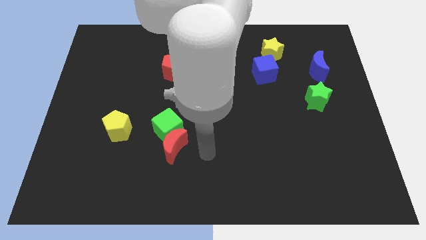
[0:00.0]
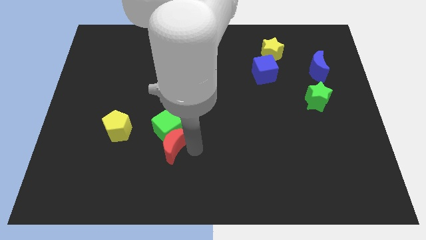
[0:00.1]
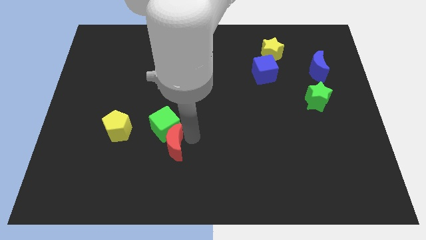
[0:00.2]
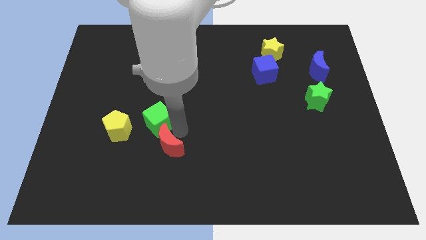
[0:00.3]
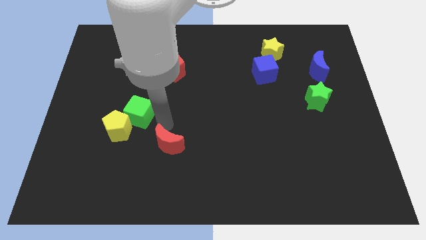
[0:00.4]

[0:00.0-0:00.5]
pull the red moon apart from the green cube

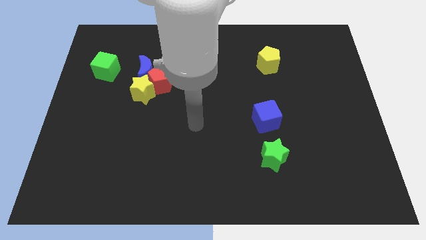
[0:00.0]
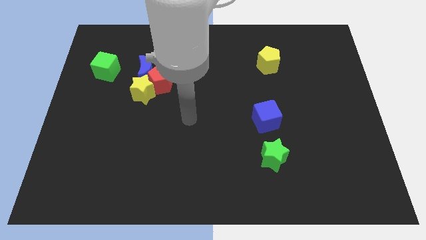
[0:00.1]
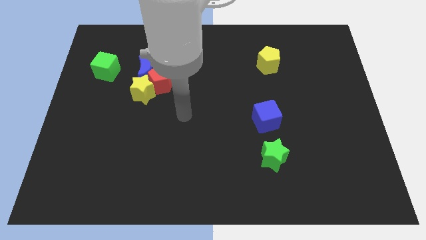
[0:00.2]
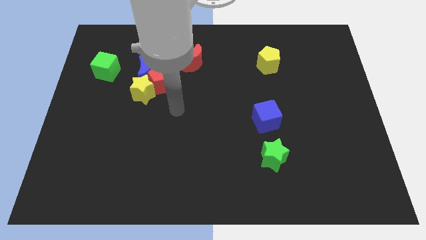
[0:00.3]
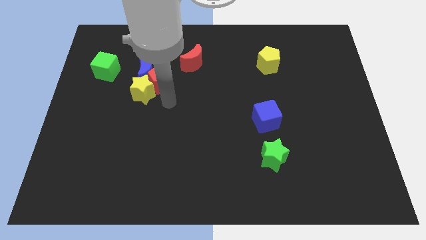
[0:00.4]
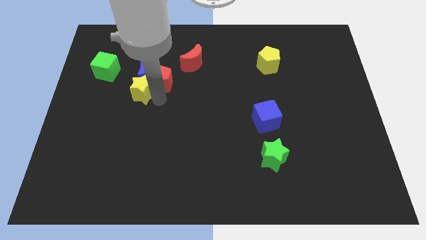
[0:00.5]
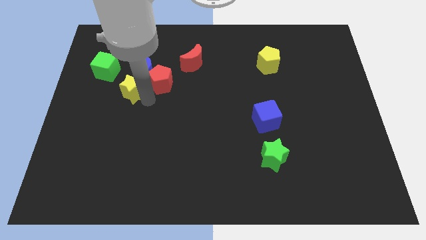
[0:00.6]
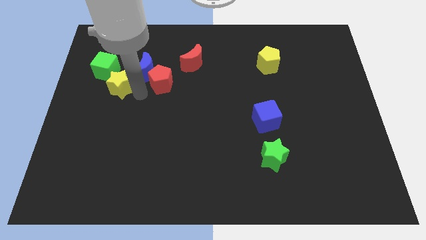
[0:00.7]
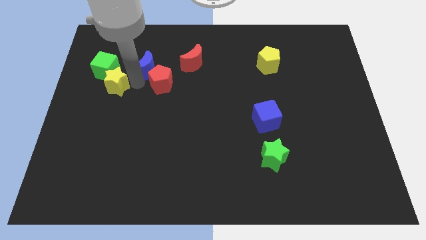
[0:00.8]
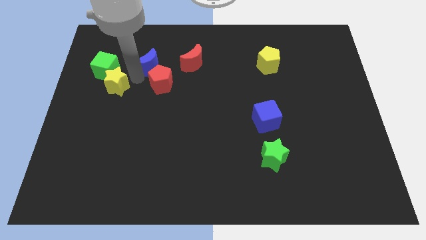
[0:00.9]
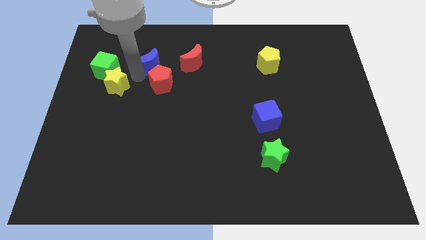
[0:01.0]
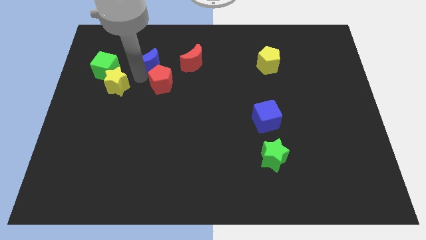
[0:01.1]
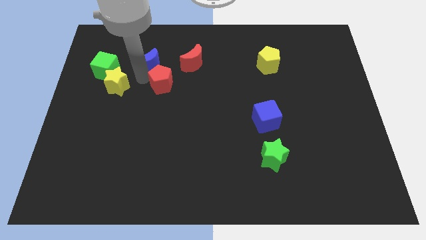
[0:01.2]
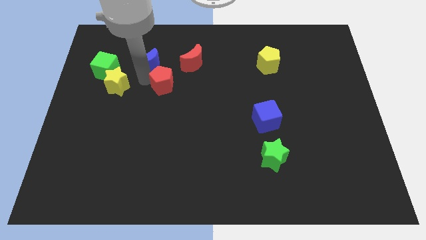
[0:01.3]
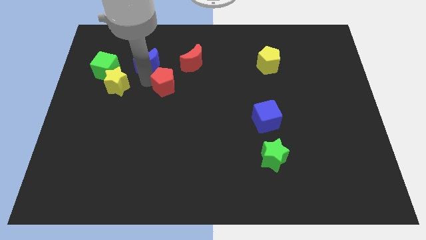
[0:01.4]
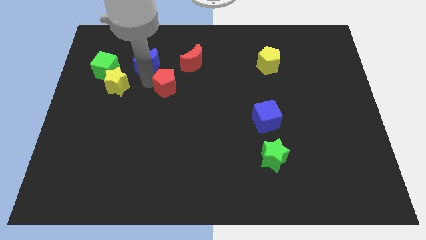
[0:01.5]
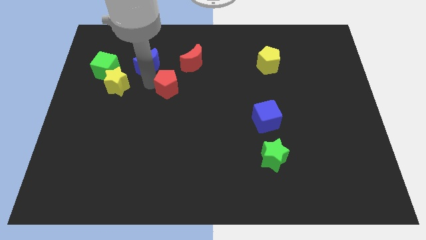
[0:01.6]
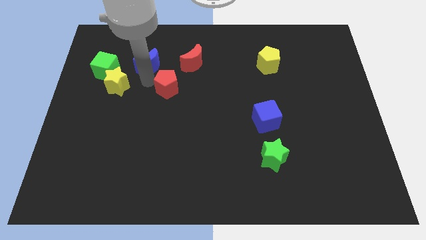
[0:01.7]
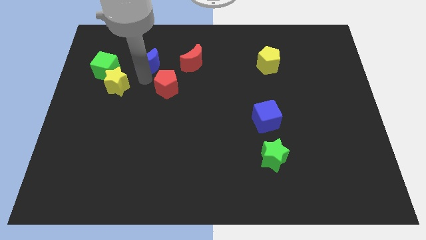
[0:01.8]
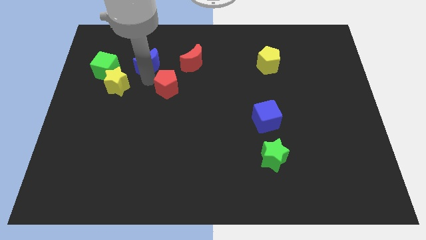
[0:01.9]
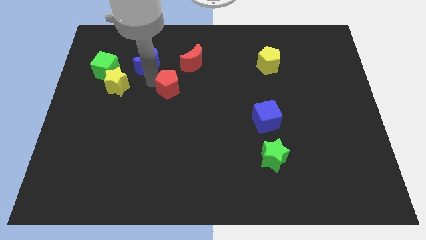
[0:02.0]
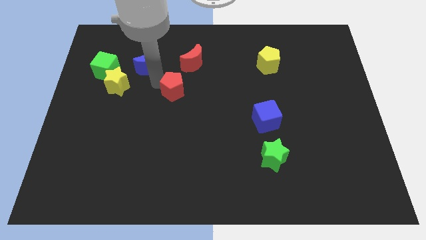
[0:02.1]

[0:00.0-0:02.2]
move the red pentagon away from the blue moon and yellow star

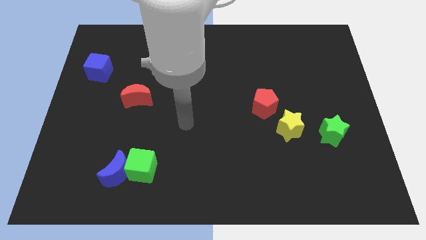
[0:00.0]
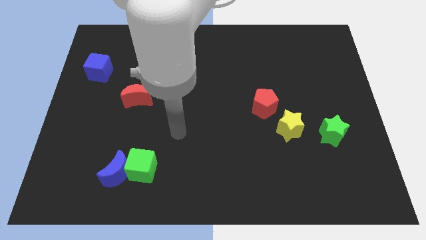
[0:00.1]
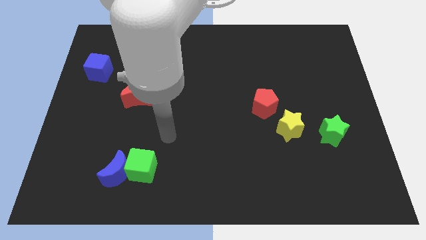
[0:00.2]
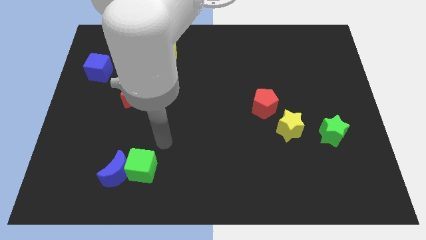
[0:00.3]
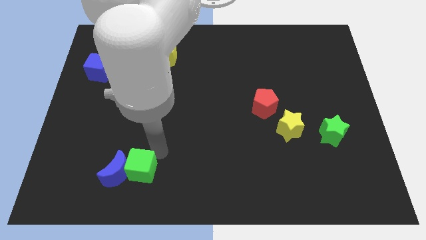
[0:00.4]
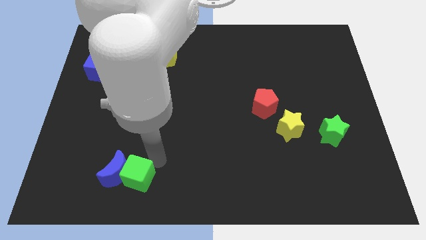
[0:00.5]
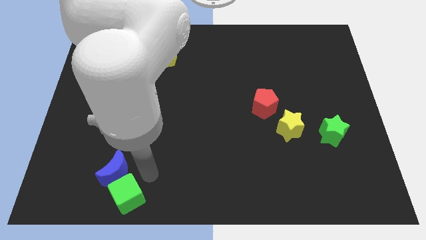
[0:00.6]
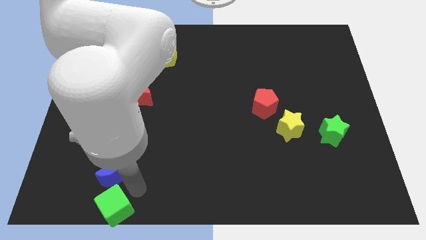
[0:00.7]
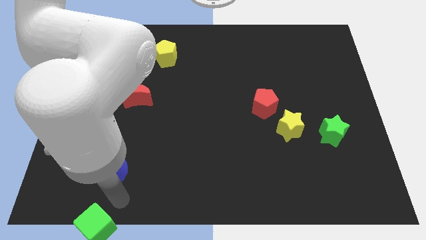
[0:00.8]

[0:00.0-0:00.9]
separate the blue moon from the green cube

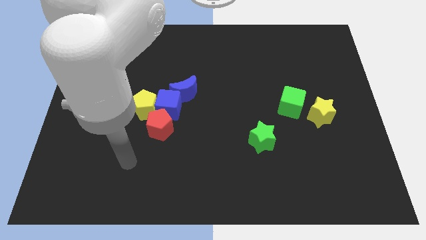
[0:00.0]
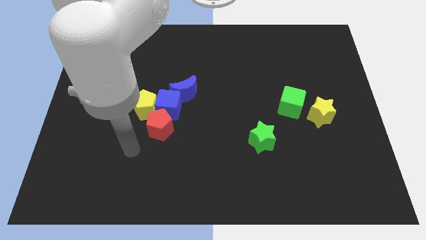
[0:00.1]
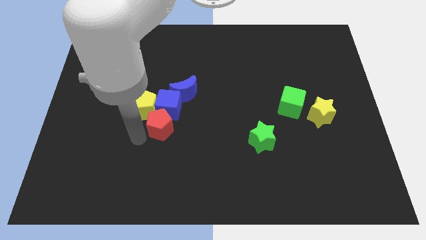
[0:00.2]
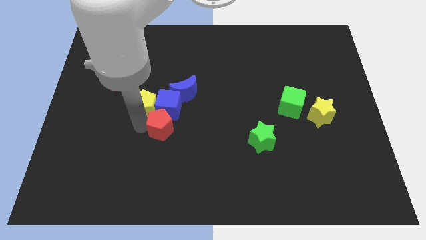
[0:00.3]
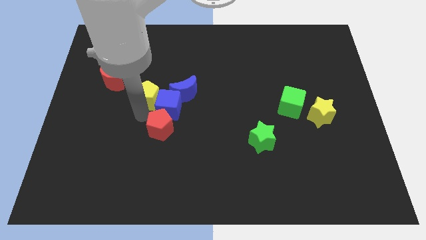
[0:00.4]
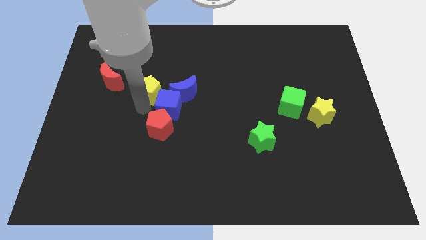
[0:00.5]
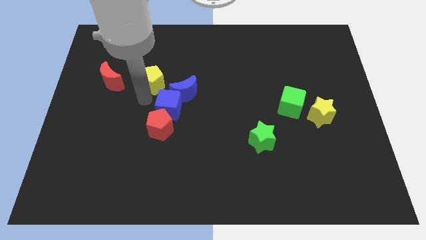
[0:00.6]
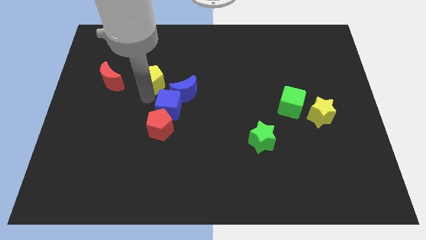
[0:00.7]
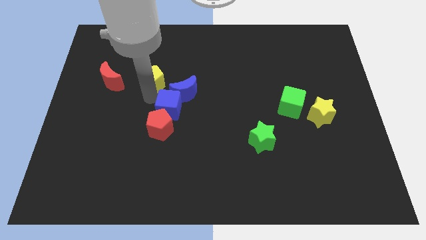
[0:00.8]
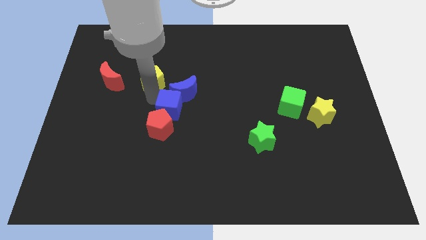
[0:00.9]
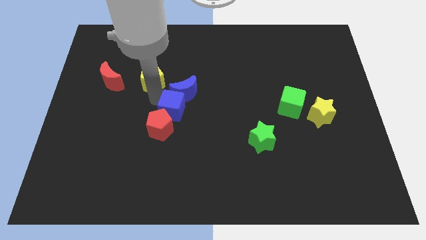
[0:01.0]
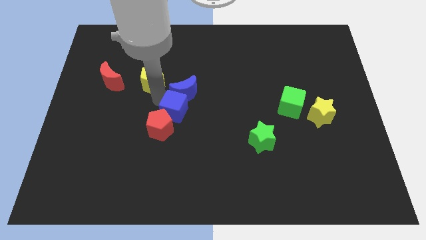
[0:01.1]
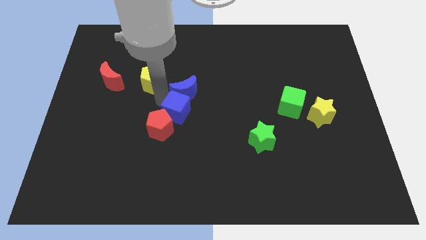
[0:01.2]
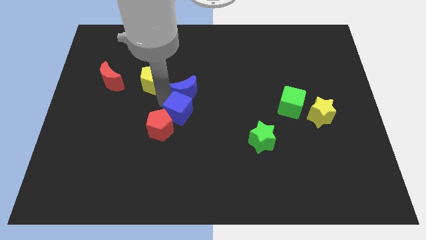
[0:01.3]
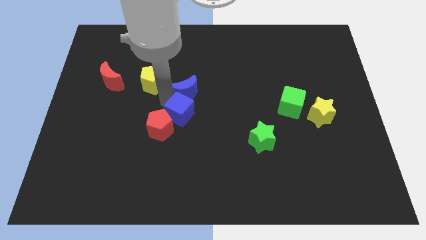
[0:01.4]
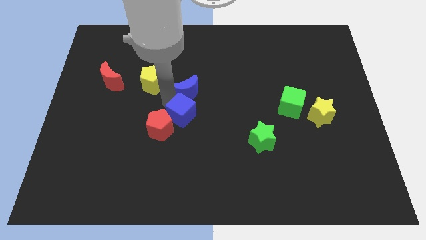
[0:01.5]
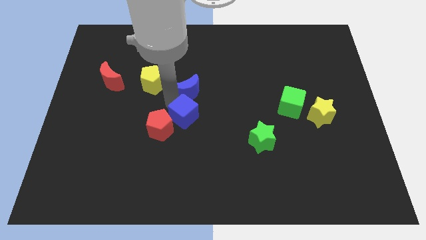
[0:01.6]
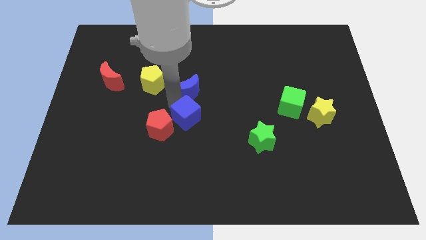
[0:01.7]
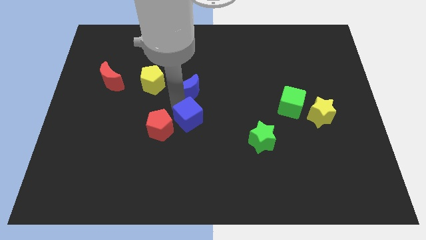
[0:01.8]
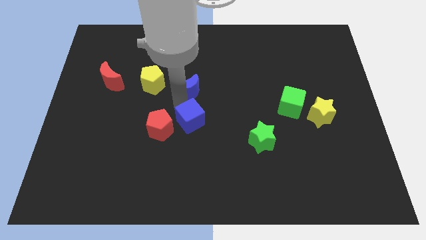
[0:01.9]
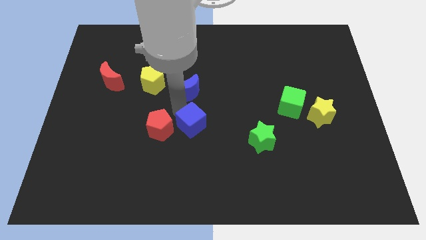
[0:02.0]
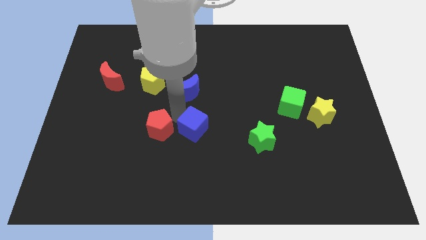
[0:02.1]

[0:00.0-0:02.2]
separate the blue cube from the group

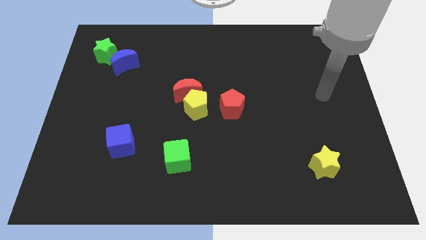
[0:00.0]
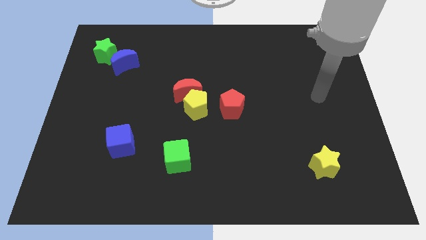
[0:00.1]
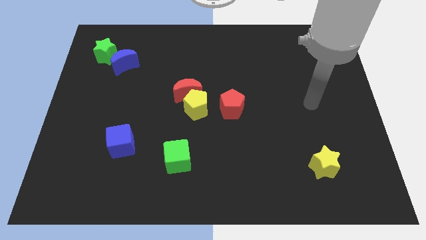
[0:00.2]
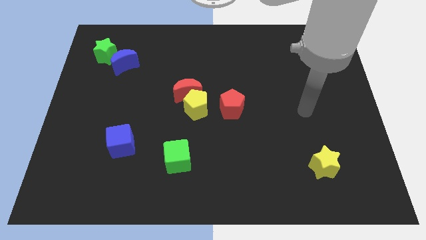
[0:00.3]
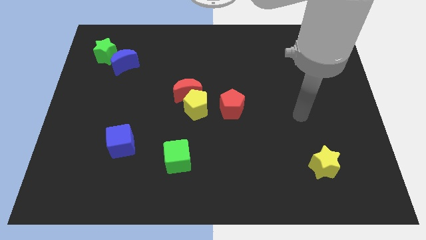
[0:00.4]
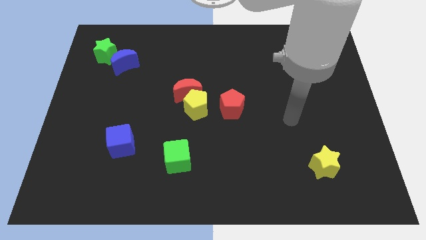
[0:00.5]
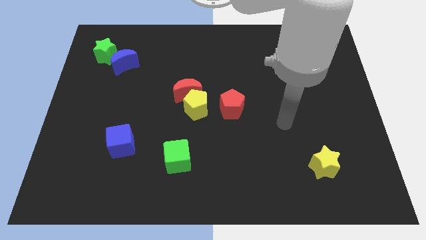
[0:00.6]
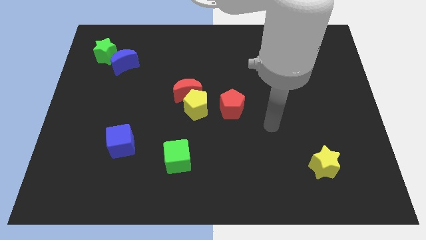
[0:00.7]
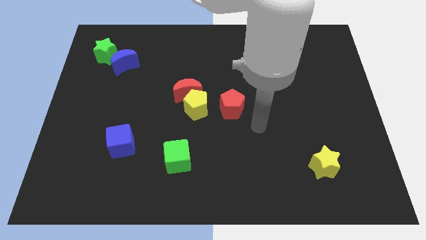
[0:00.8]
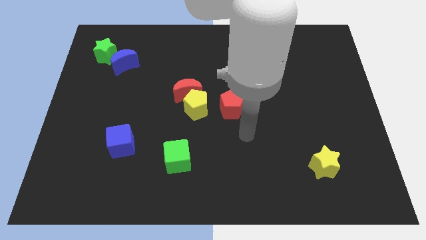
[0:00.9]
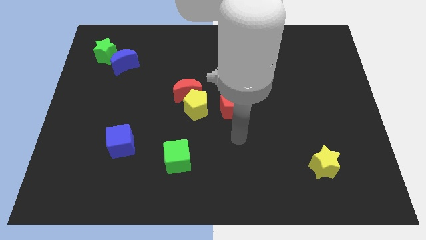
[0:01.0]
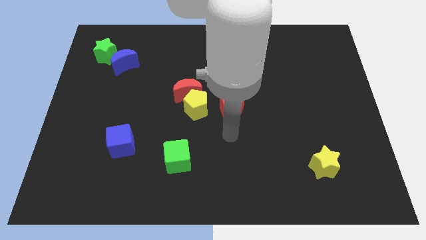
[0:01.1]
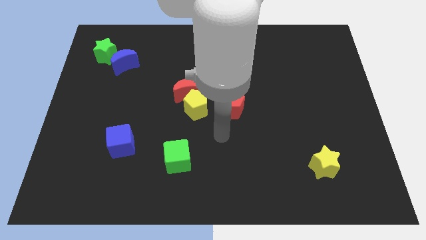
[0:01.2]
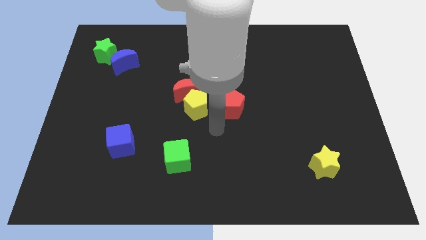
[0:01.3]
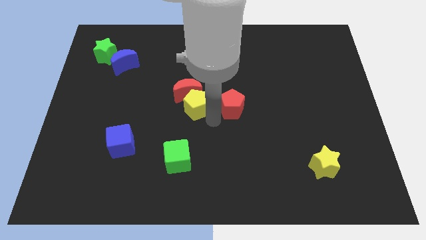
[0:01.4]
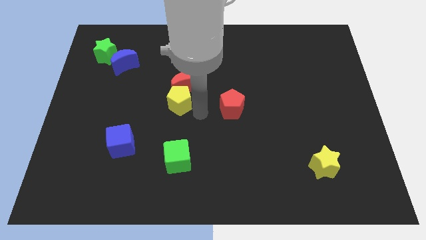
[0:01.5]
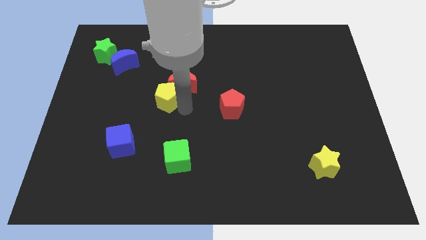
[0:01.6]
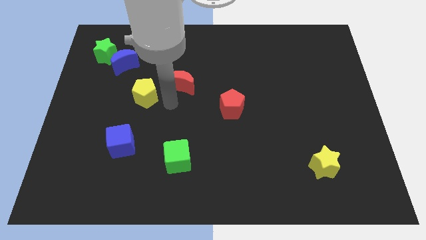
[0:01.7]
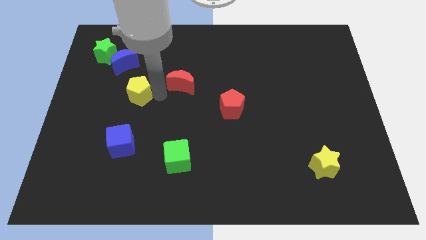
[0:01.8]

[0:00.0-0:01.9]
separate the red moon from the yellow pentagon

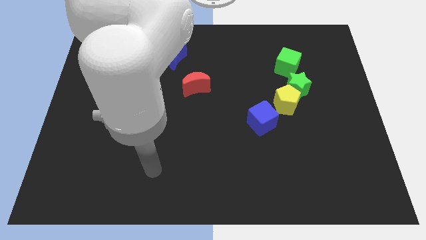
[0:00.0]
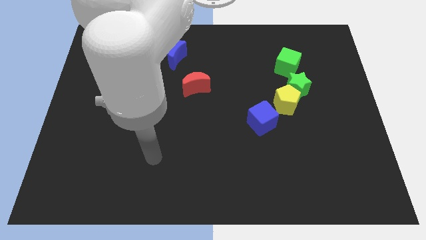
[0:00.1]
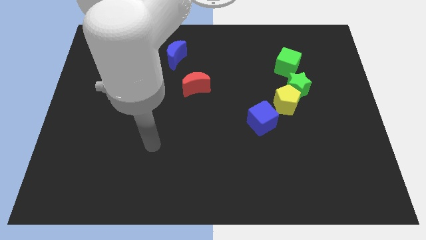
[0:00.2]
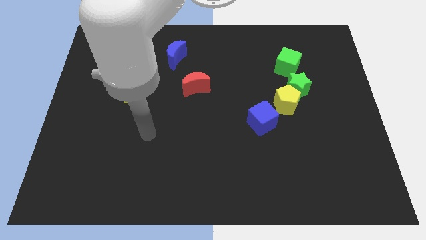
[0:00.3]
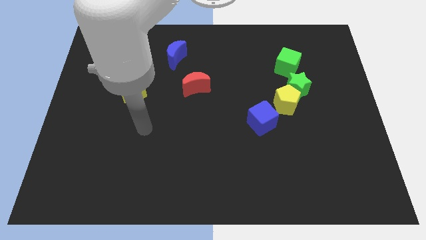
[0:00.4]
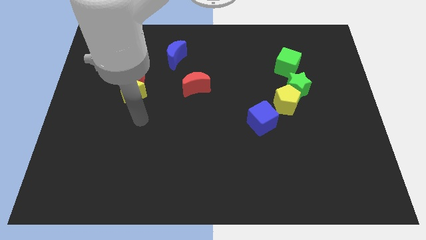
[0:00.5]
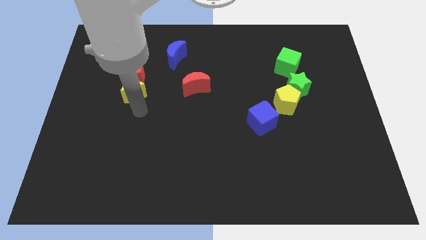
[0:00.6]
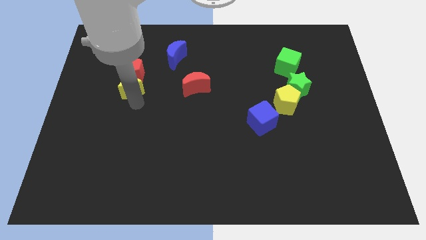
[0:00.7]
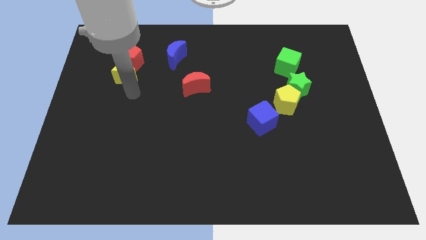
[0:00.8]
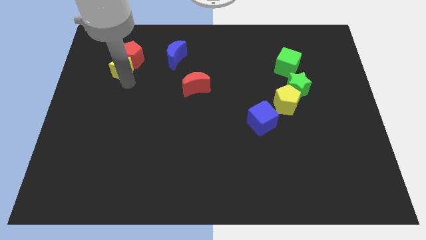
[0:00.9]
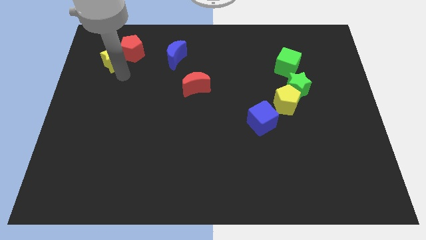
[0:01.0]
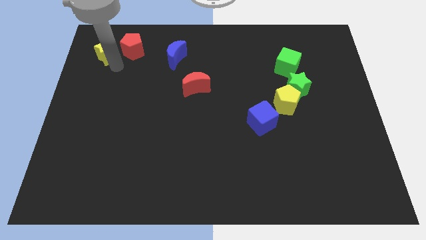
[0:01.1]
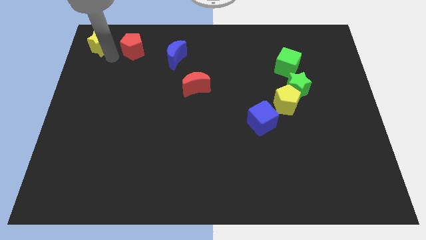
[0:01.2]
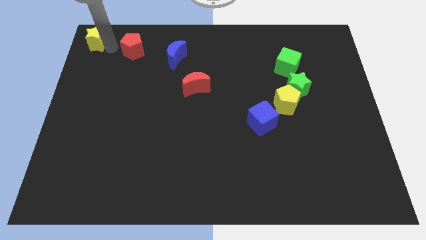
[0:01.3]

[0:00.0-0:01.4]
separate the red pentagon from the yellow star

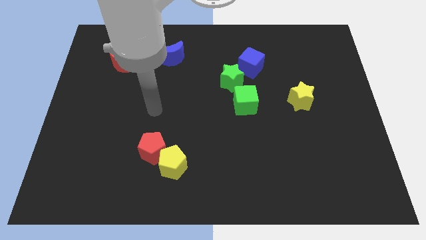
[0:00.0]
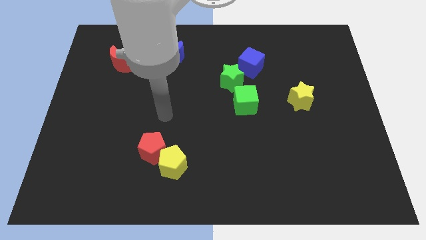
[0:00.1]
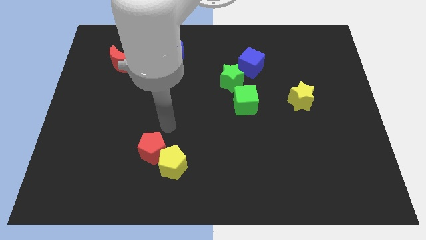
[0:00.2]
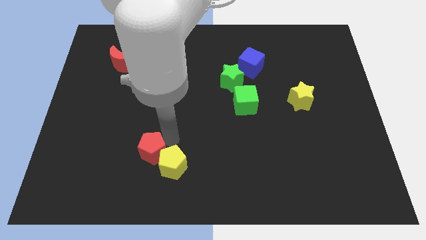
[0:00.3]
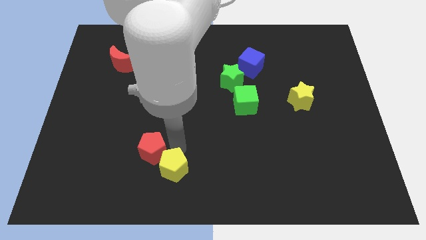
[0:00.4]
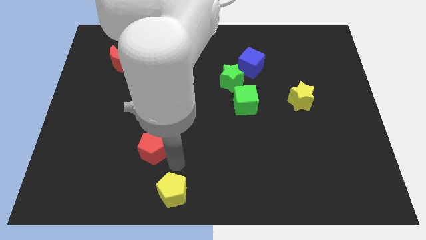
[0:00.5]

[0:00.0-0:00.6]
pull the red pentagon apart from the yellow pentagon
